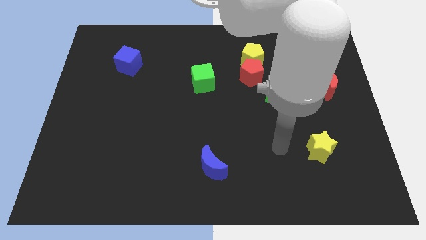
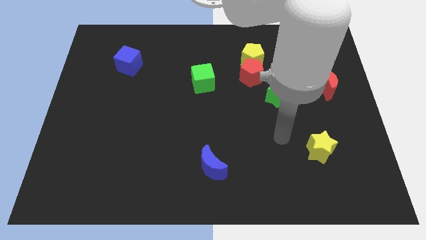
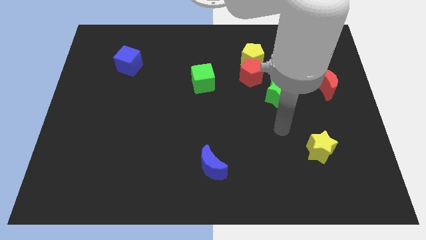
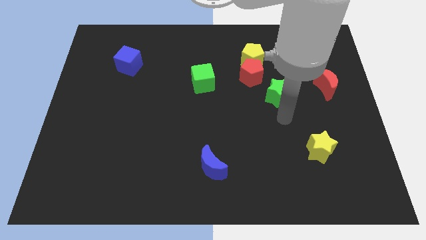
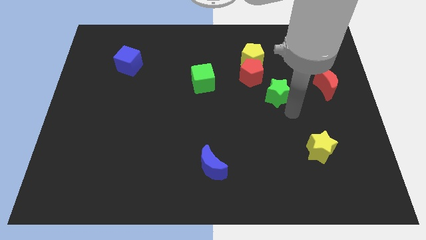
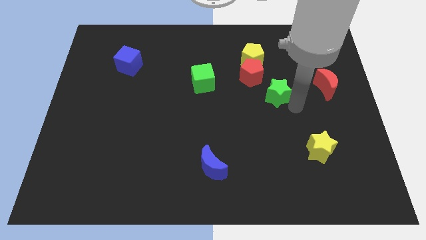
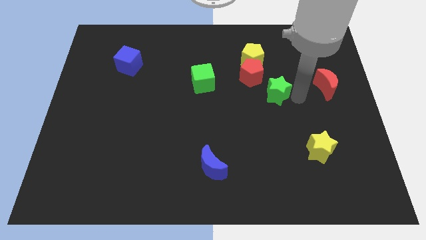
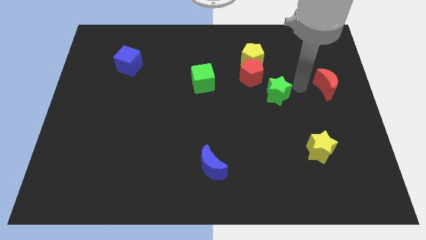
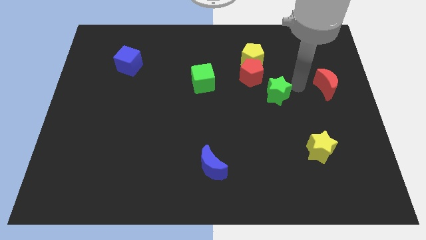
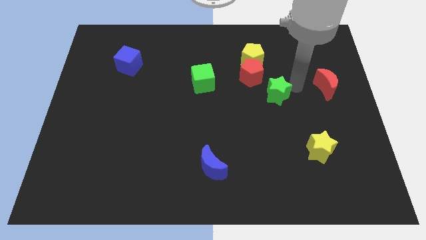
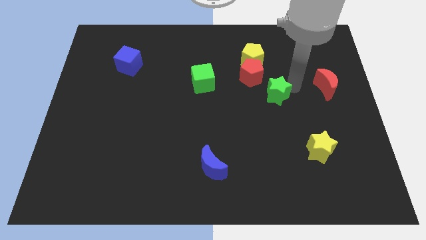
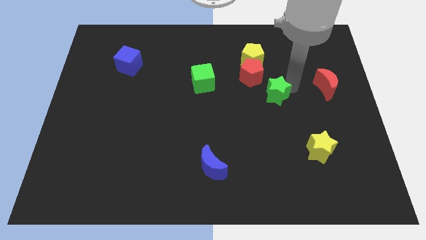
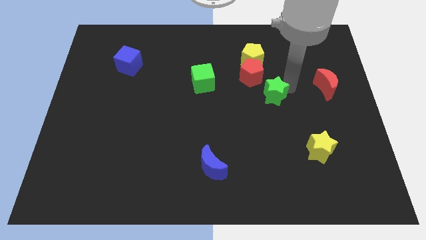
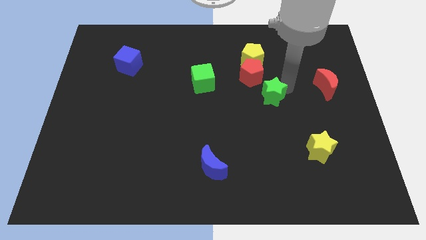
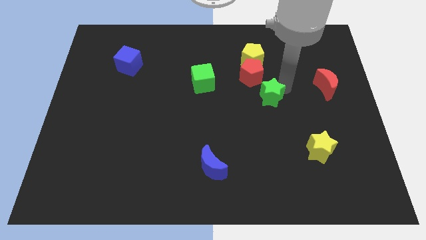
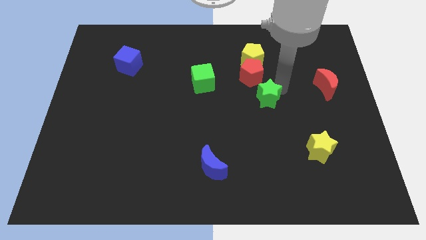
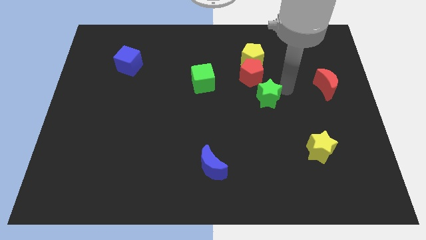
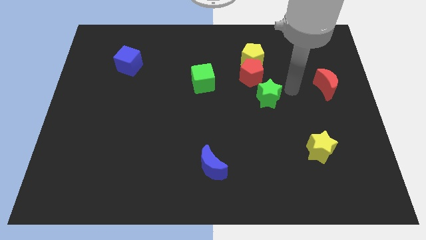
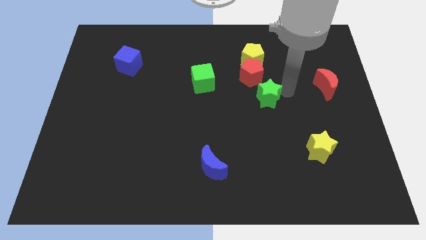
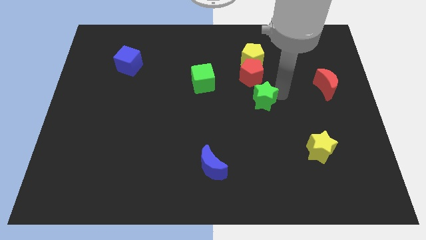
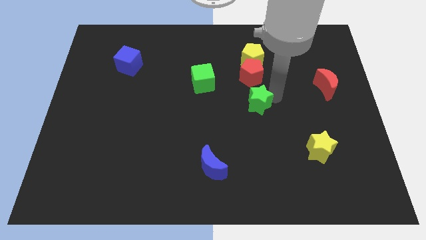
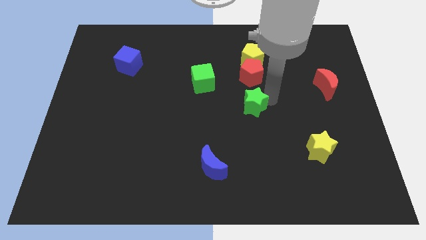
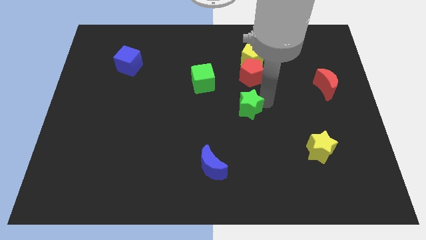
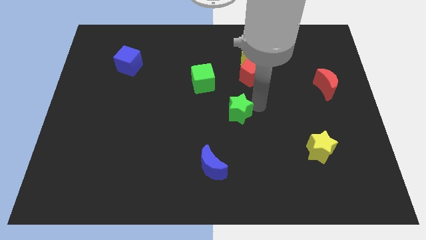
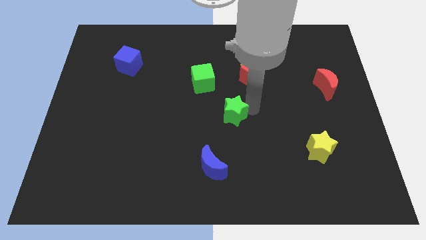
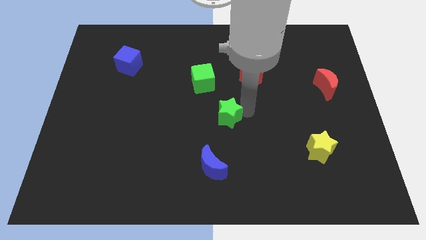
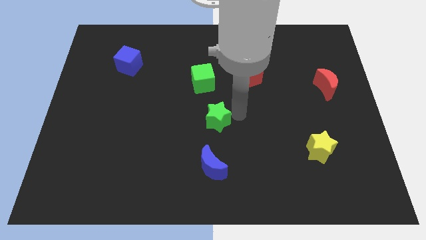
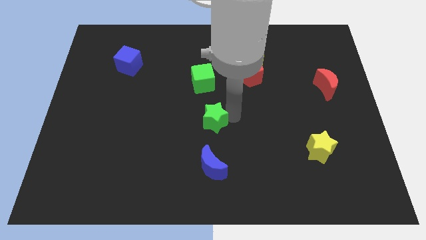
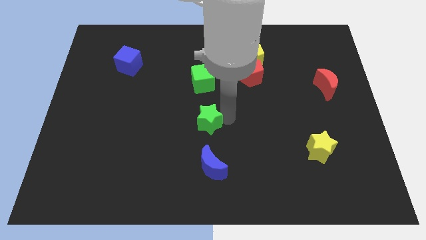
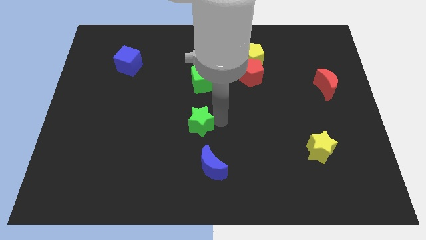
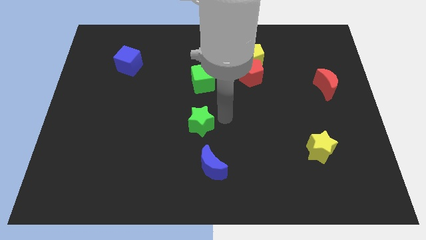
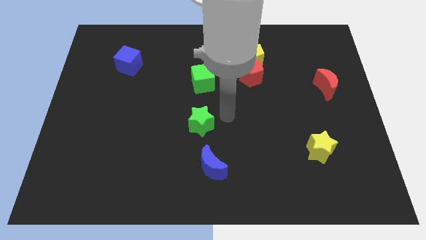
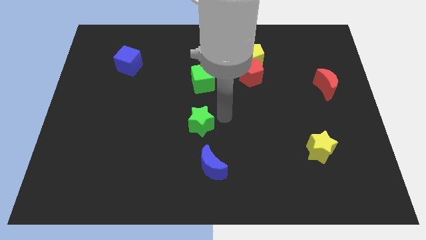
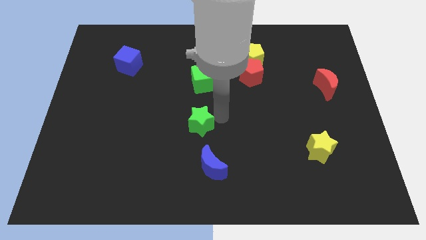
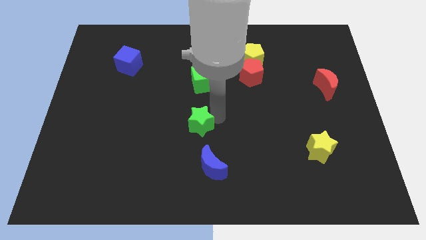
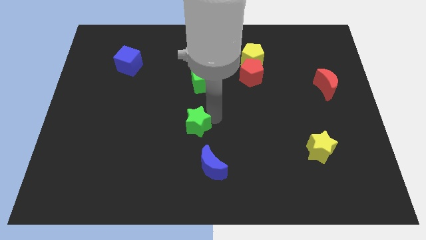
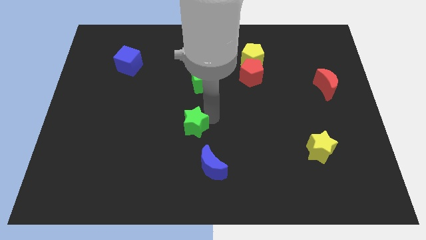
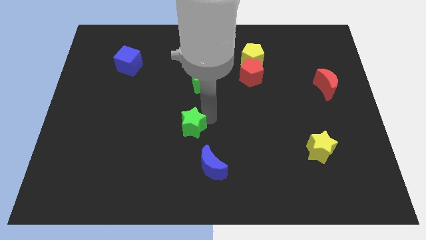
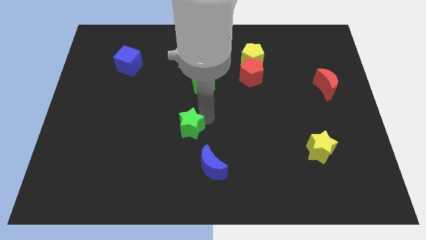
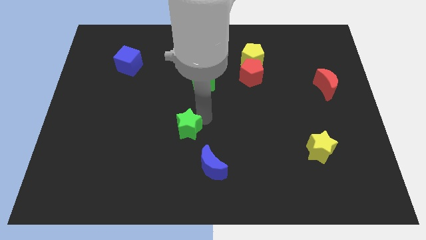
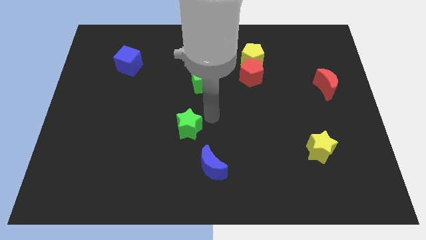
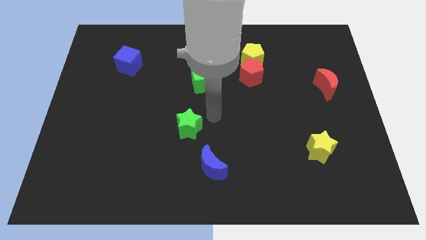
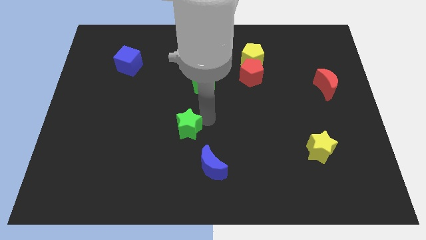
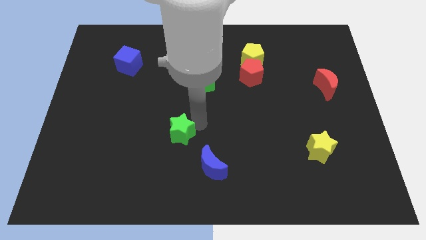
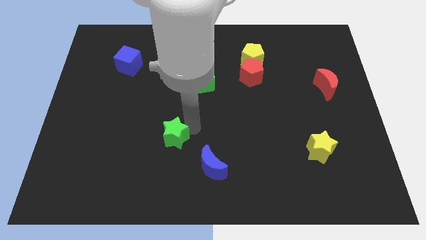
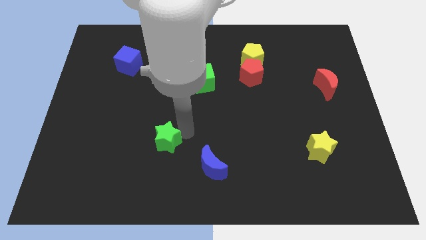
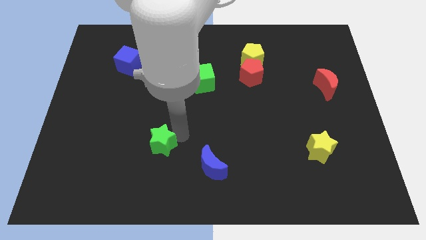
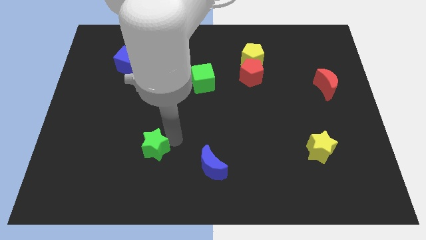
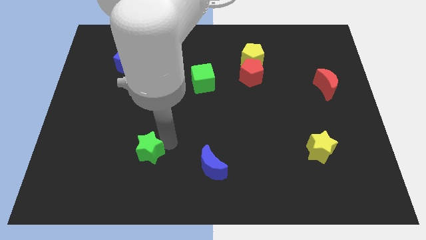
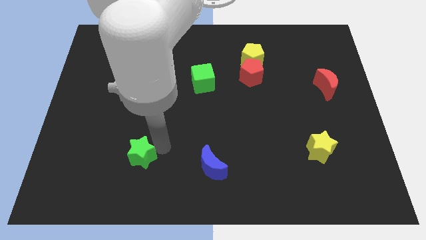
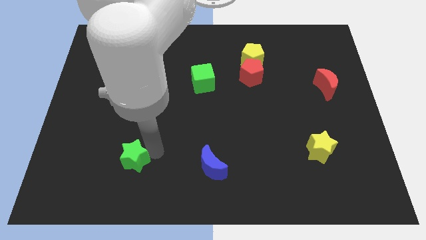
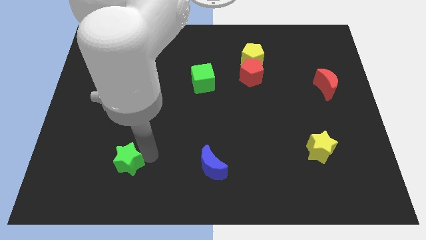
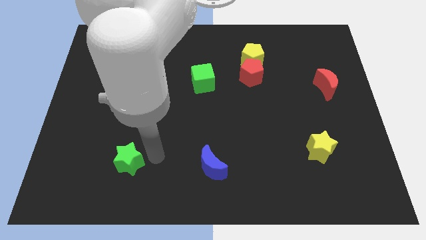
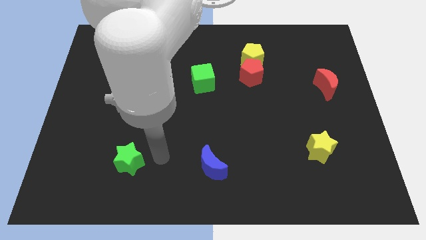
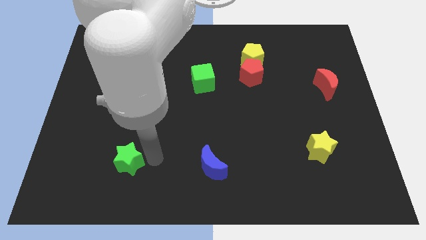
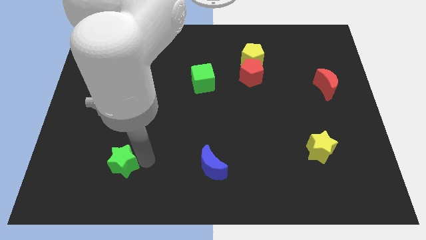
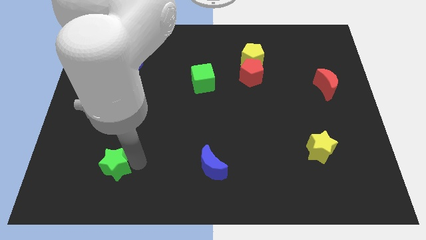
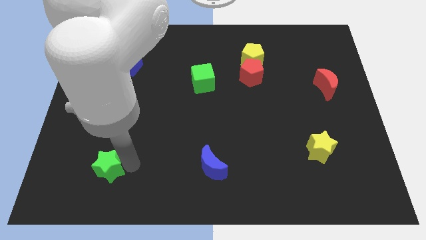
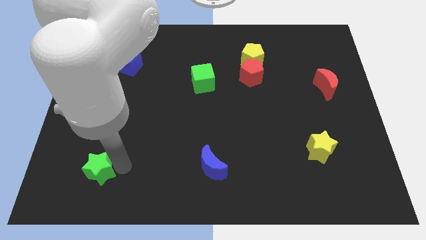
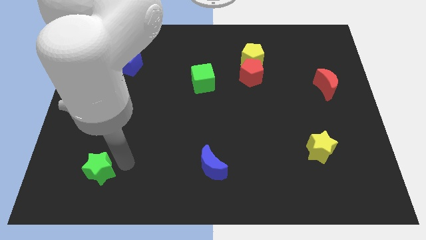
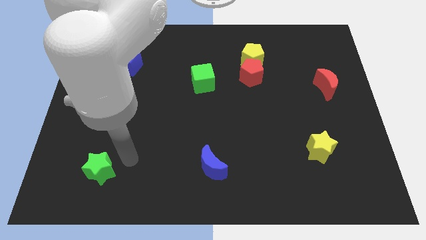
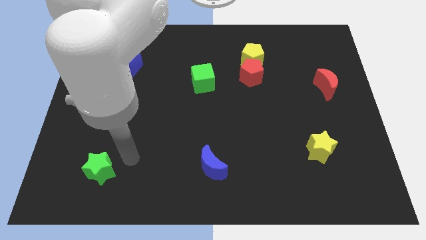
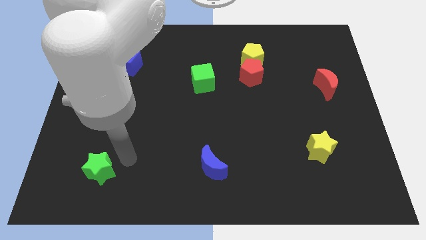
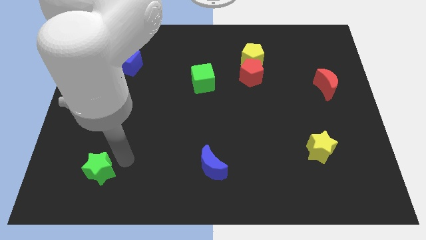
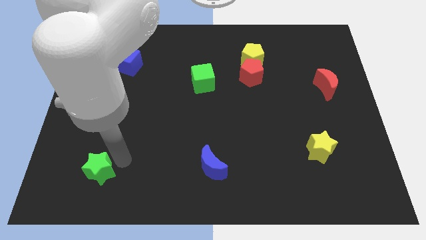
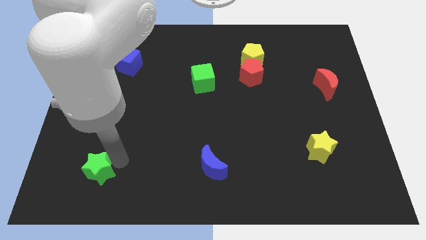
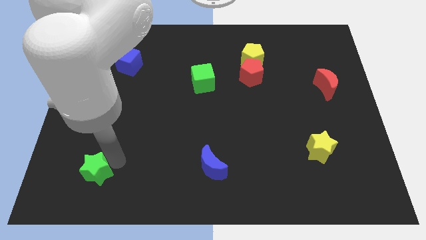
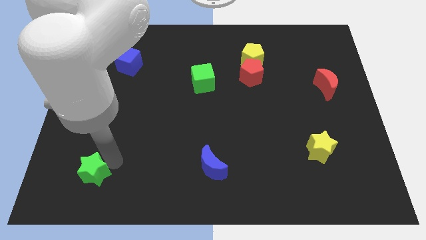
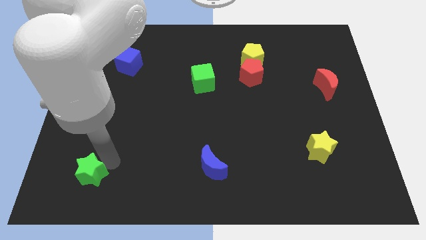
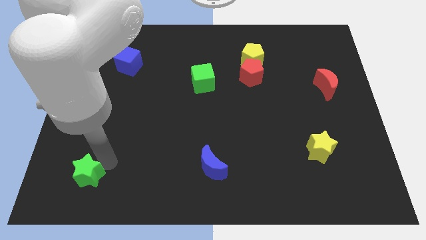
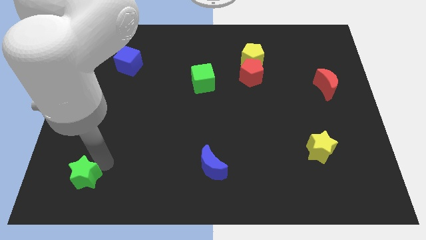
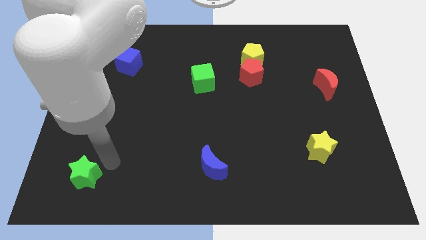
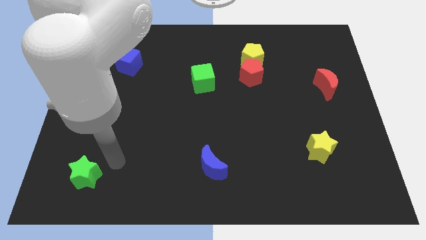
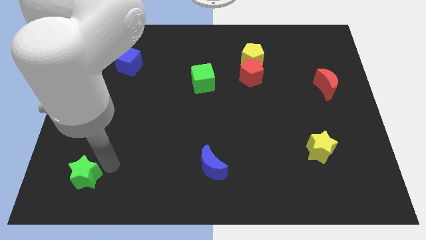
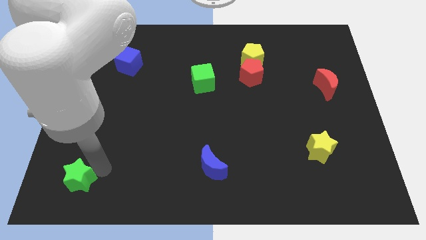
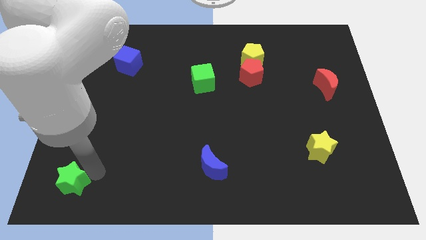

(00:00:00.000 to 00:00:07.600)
push the green star to the bottom left
